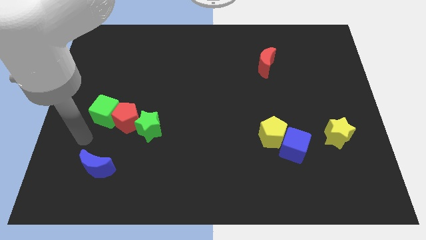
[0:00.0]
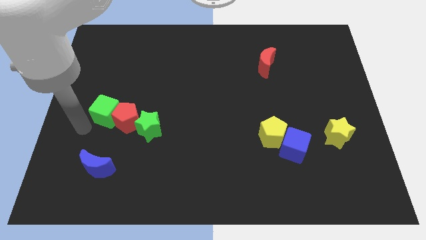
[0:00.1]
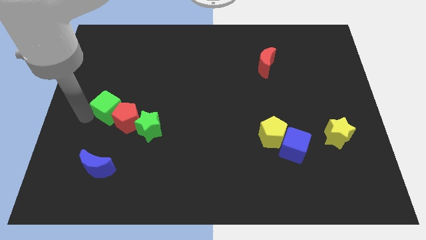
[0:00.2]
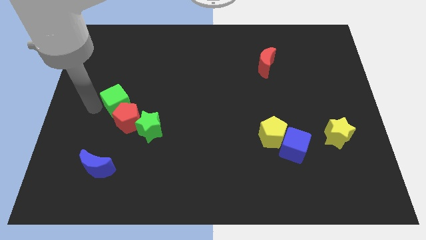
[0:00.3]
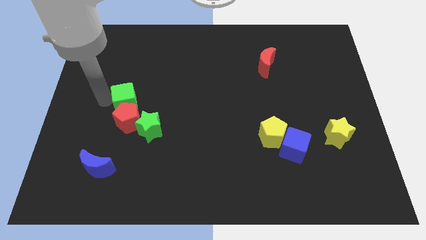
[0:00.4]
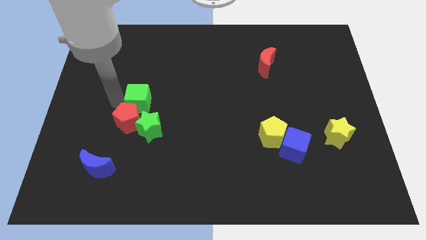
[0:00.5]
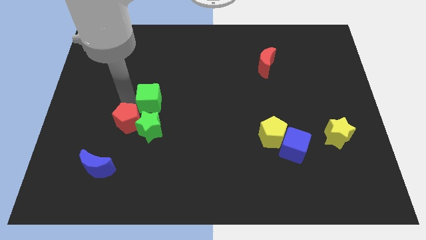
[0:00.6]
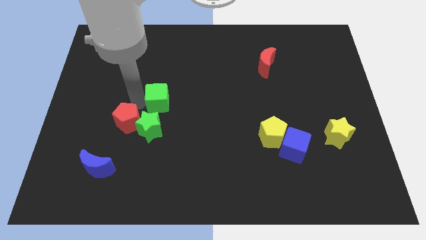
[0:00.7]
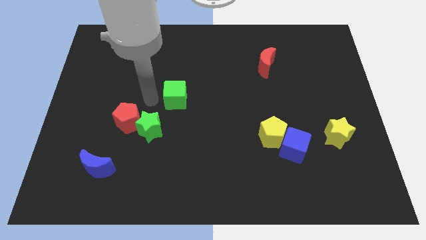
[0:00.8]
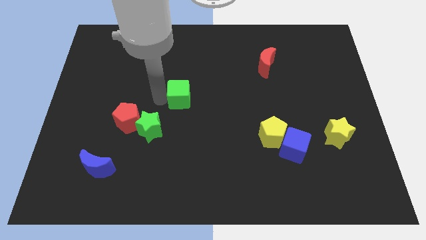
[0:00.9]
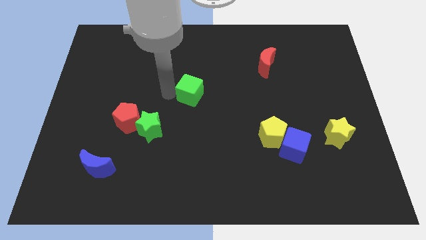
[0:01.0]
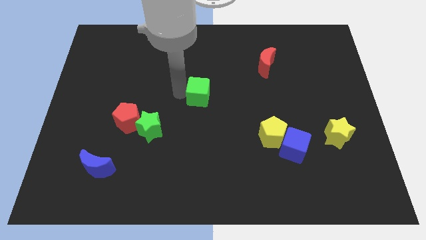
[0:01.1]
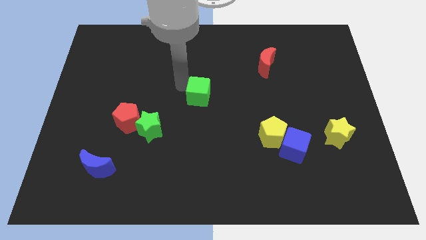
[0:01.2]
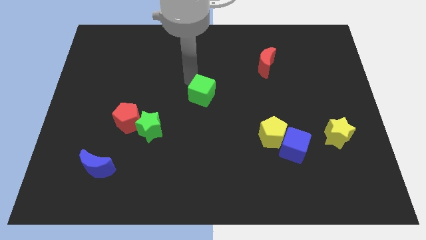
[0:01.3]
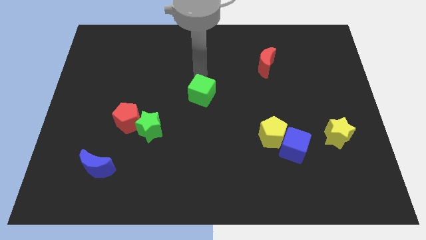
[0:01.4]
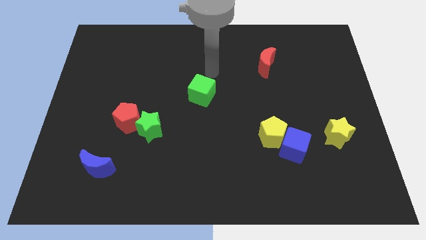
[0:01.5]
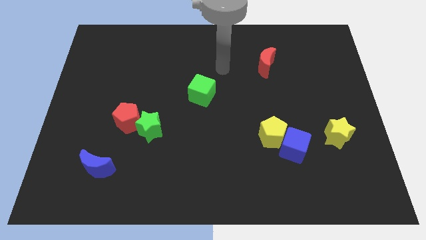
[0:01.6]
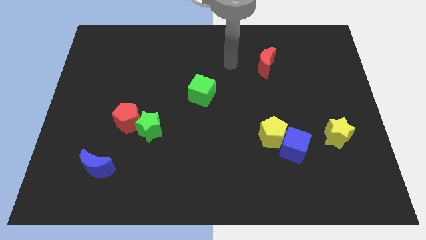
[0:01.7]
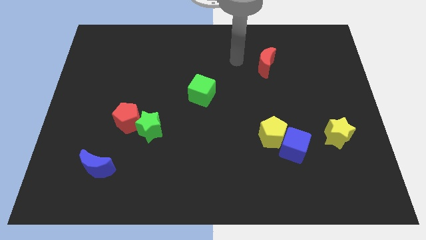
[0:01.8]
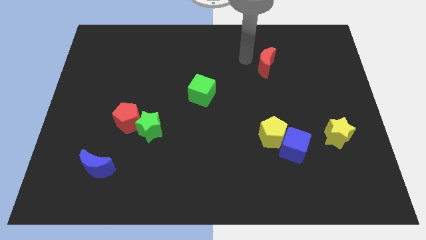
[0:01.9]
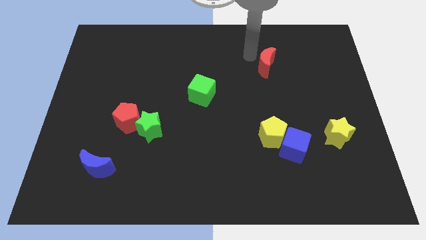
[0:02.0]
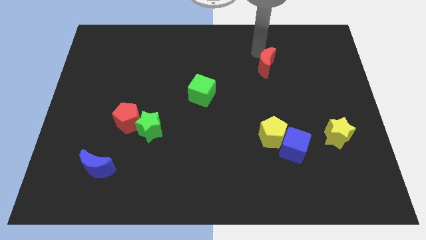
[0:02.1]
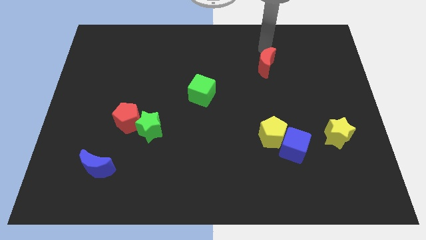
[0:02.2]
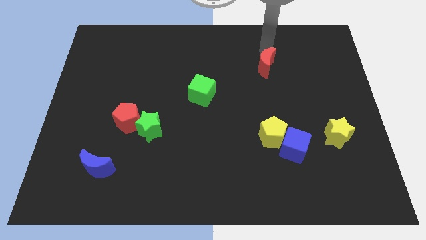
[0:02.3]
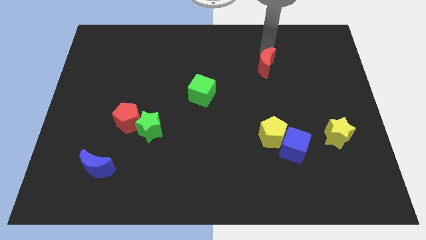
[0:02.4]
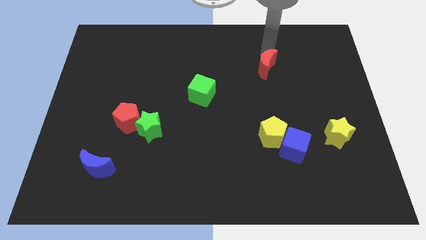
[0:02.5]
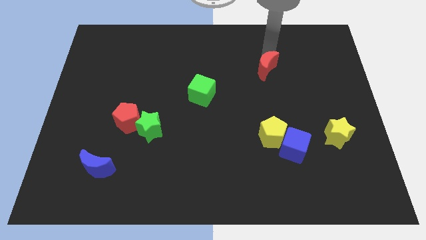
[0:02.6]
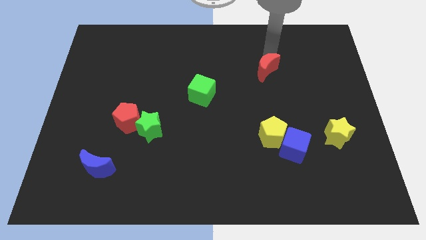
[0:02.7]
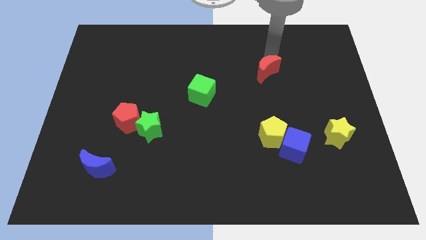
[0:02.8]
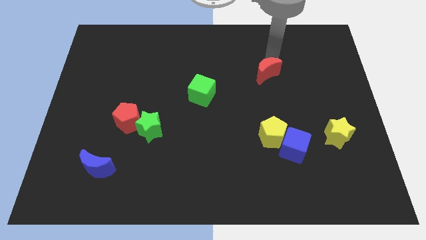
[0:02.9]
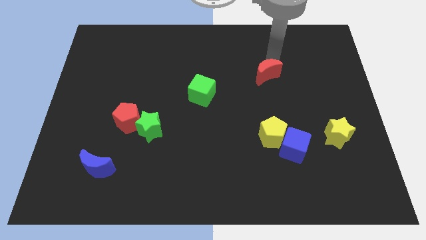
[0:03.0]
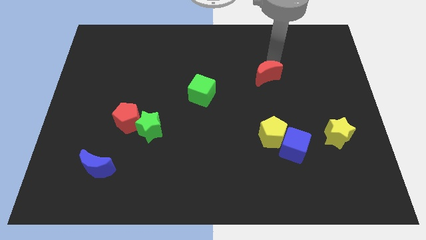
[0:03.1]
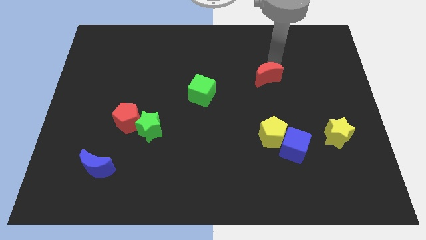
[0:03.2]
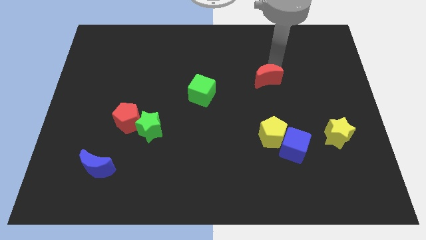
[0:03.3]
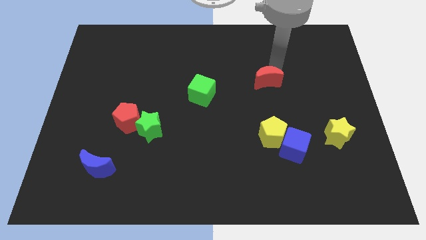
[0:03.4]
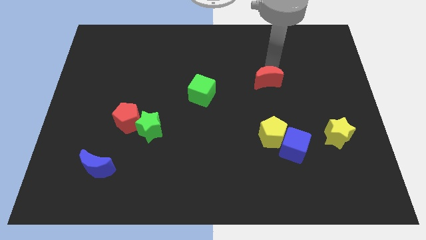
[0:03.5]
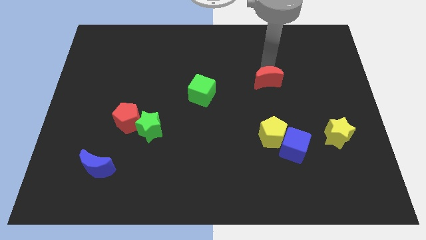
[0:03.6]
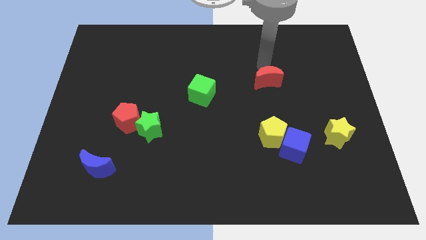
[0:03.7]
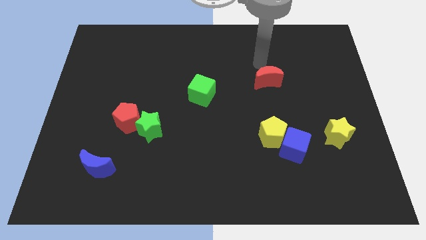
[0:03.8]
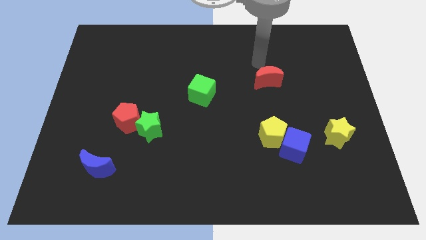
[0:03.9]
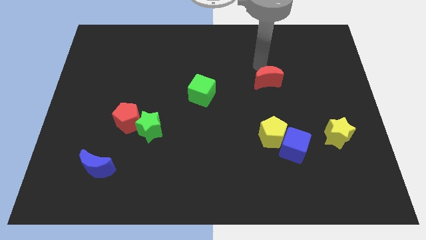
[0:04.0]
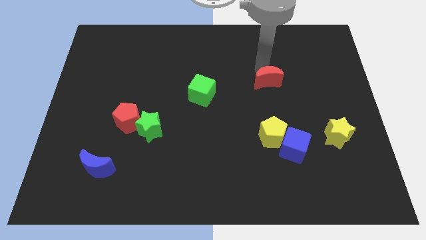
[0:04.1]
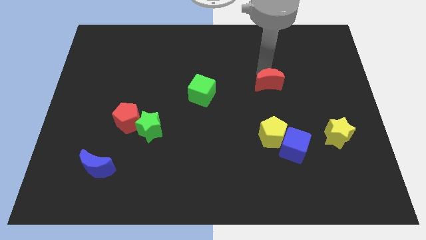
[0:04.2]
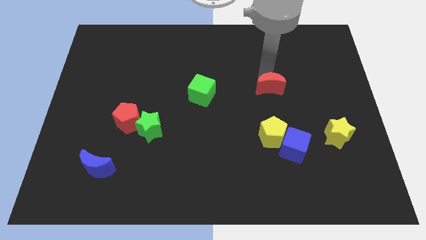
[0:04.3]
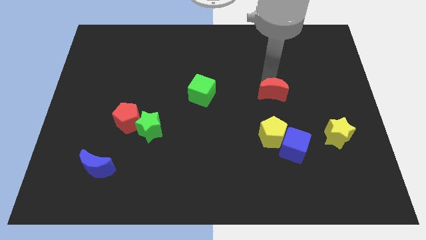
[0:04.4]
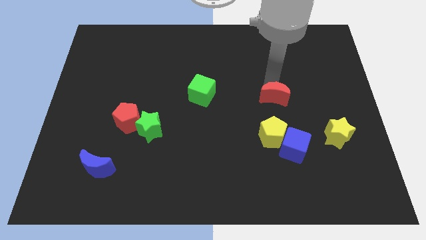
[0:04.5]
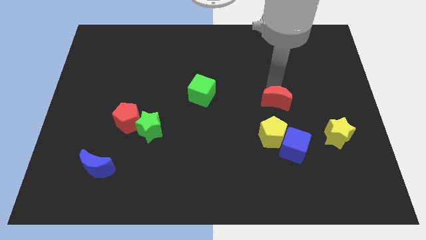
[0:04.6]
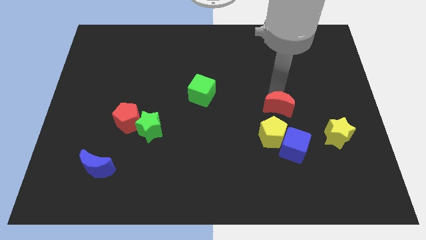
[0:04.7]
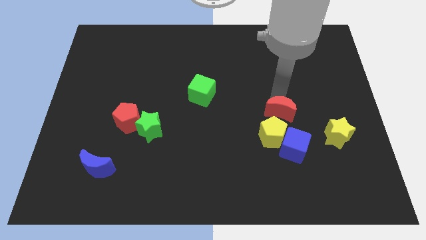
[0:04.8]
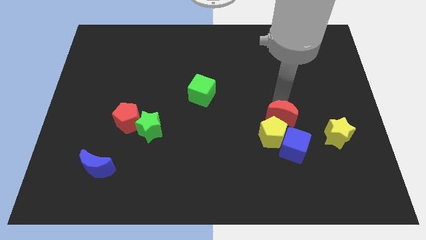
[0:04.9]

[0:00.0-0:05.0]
push the red moon towards the yellow pentagon

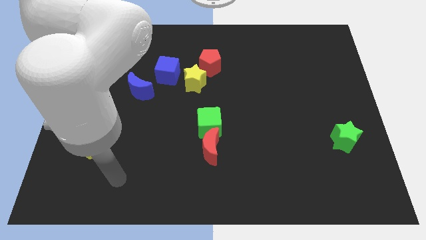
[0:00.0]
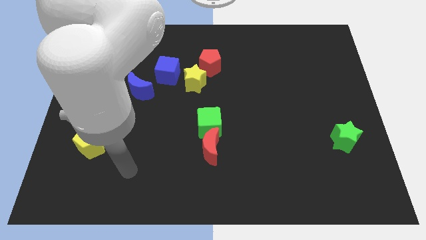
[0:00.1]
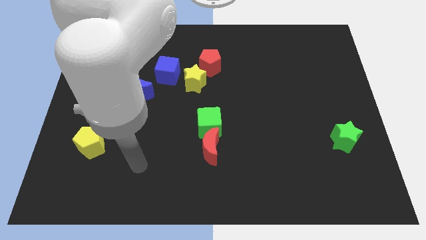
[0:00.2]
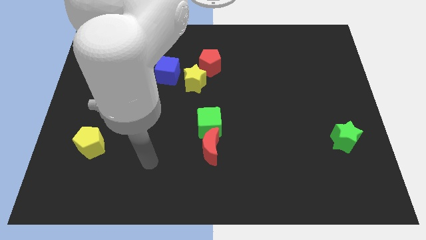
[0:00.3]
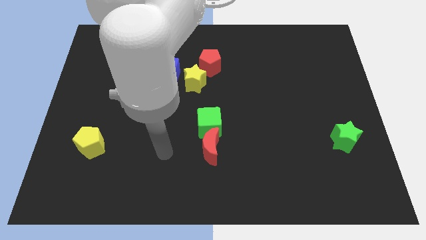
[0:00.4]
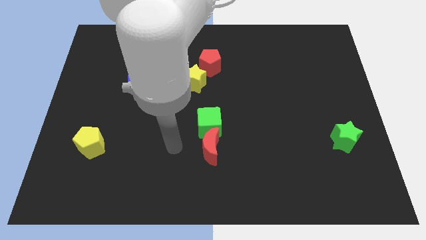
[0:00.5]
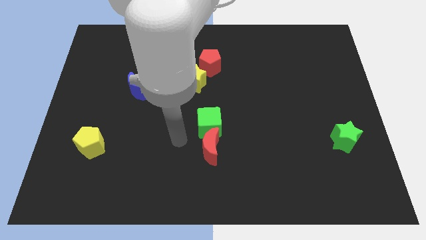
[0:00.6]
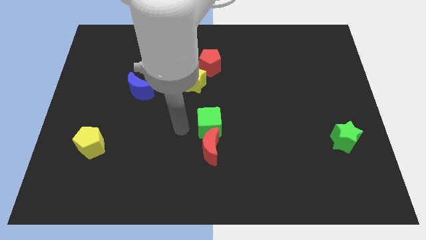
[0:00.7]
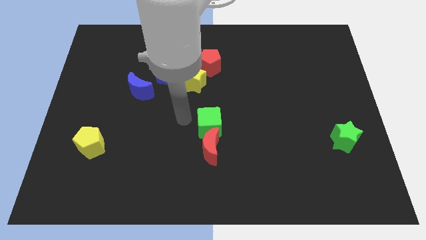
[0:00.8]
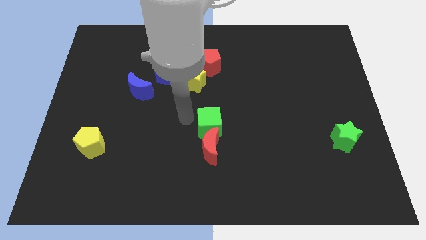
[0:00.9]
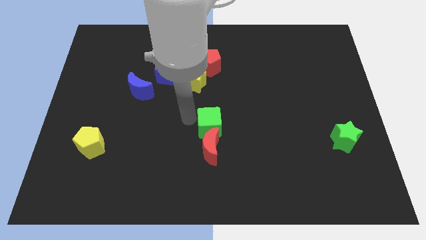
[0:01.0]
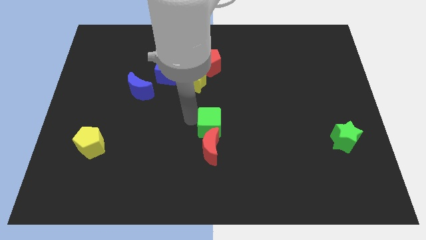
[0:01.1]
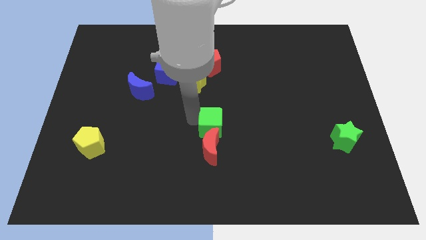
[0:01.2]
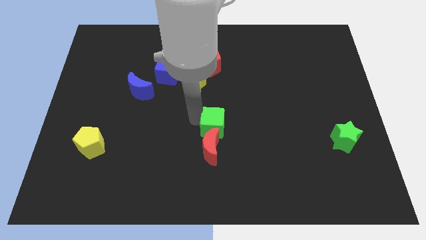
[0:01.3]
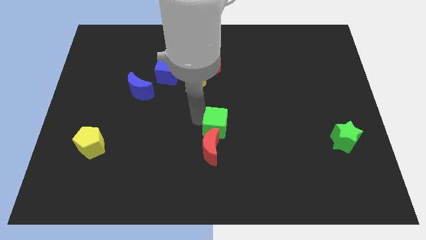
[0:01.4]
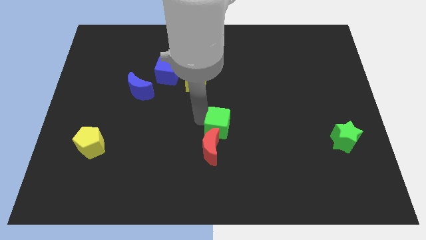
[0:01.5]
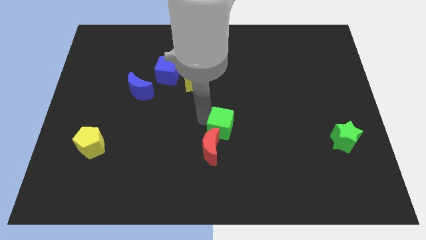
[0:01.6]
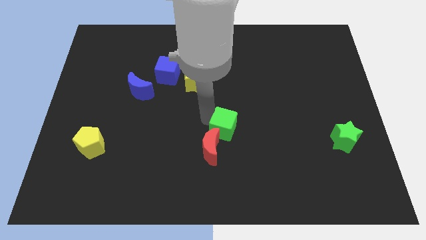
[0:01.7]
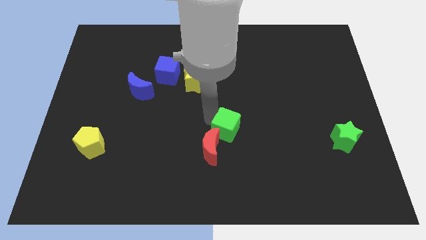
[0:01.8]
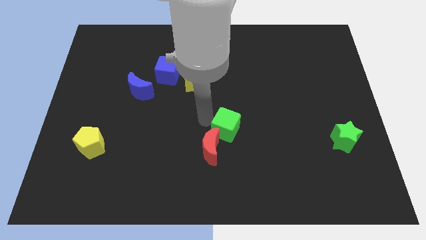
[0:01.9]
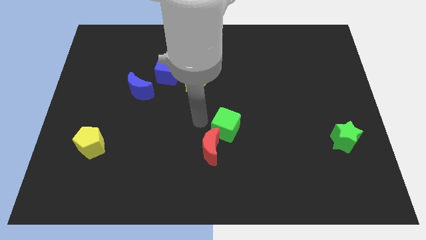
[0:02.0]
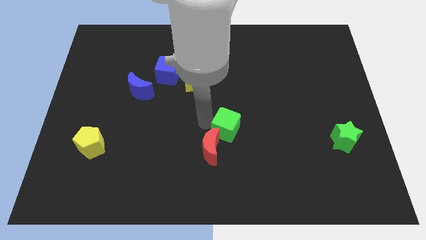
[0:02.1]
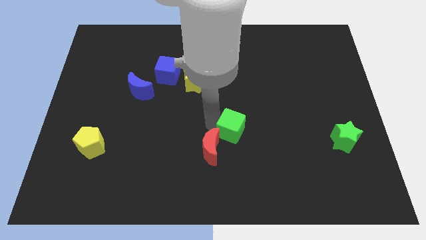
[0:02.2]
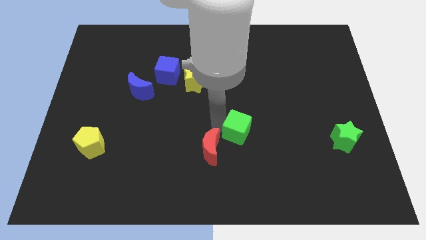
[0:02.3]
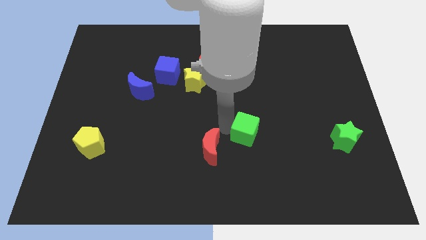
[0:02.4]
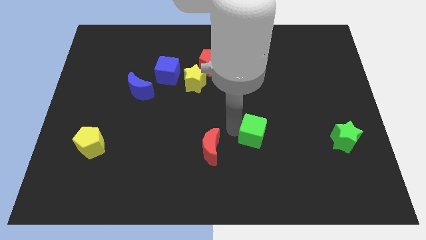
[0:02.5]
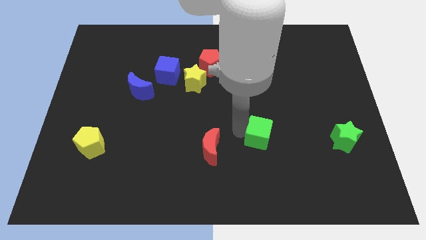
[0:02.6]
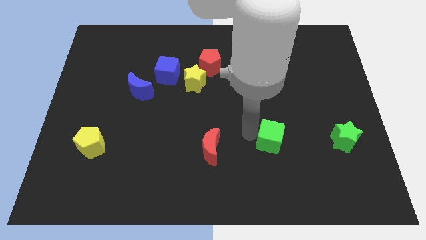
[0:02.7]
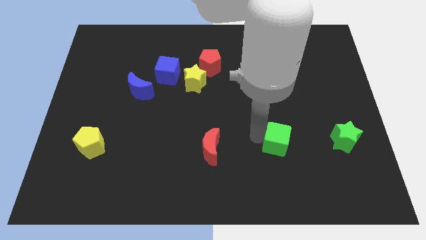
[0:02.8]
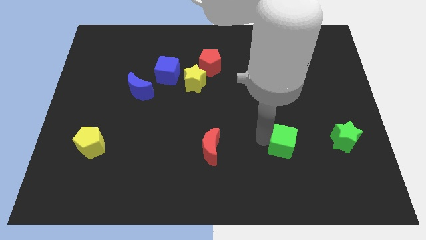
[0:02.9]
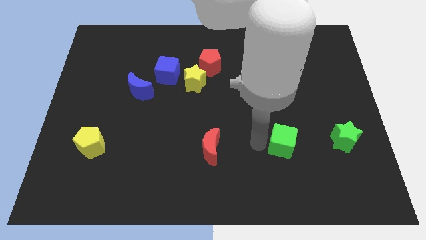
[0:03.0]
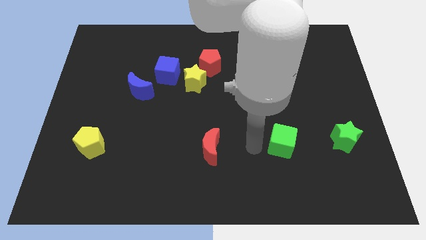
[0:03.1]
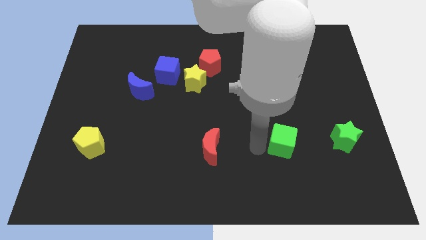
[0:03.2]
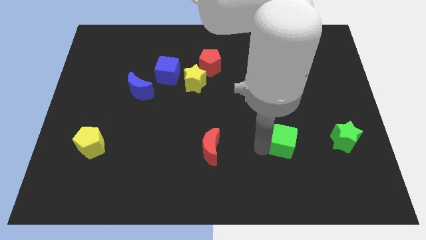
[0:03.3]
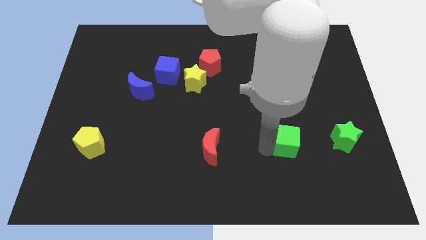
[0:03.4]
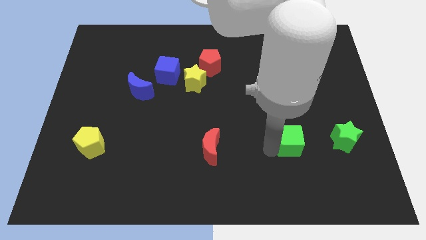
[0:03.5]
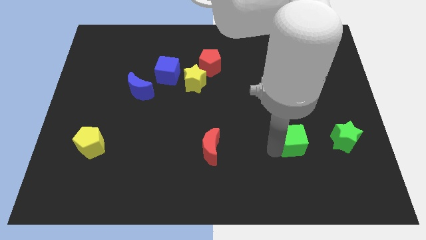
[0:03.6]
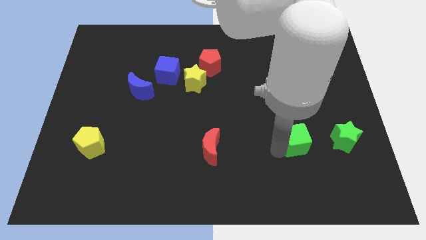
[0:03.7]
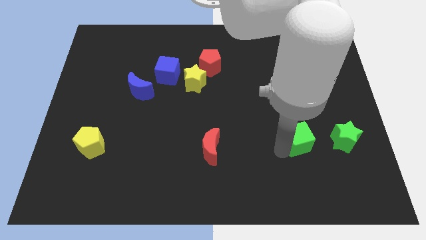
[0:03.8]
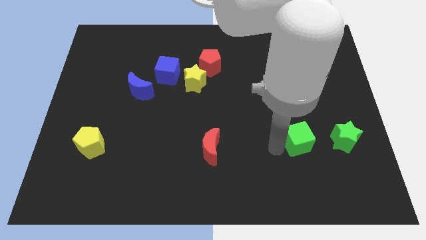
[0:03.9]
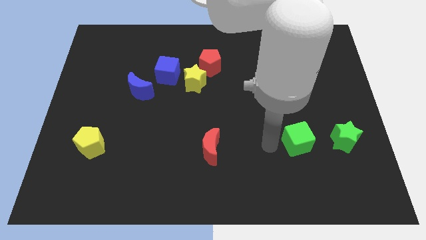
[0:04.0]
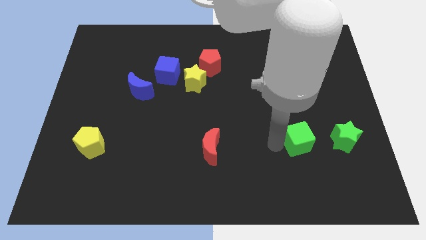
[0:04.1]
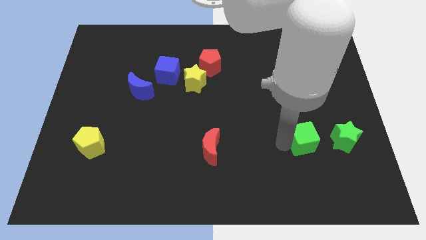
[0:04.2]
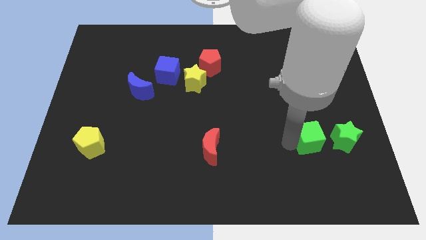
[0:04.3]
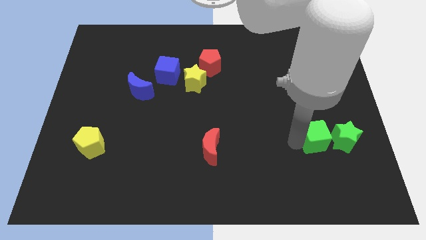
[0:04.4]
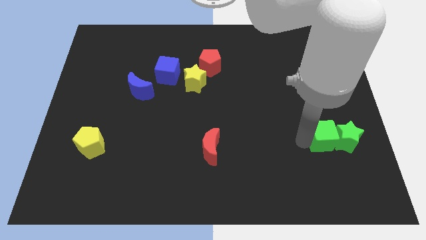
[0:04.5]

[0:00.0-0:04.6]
move the green cube towards the green star
